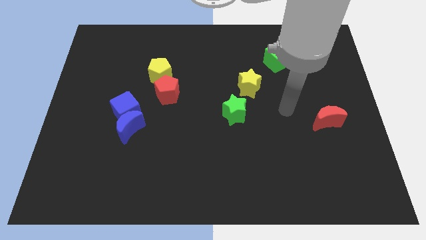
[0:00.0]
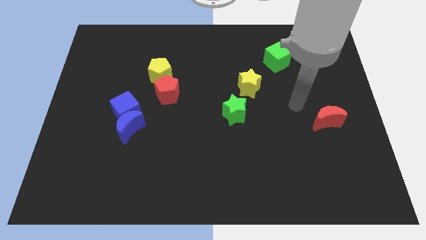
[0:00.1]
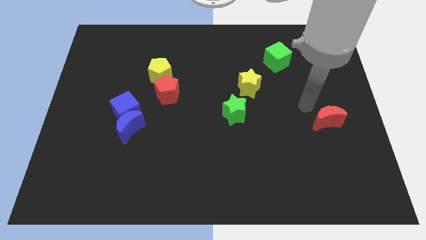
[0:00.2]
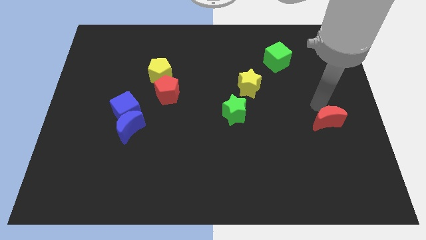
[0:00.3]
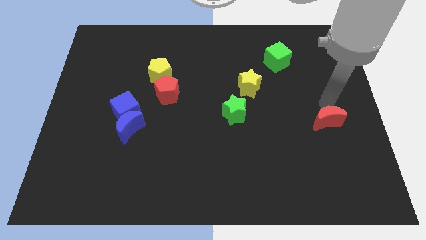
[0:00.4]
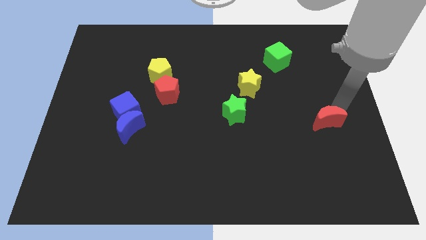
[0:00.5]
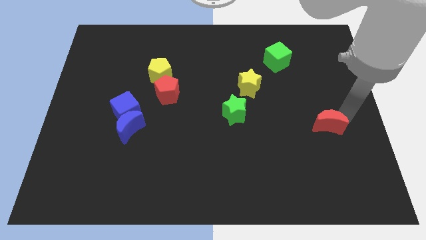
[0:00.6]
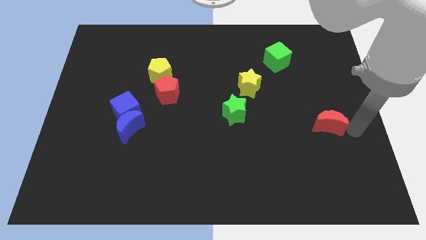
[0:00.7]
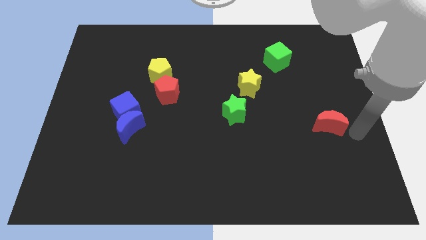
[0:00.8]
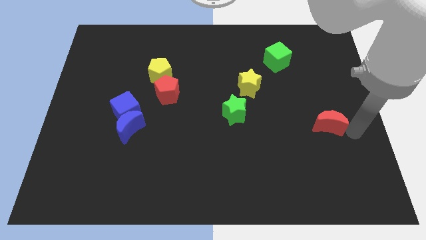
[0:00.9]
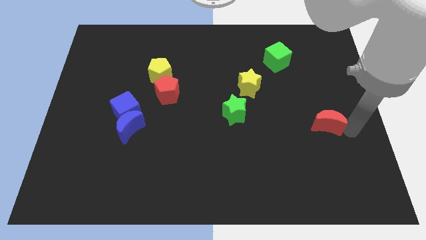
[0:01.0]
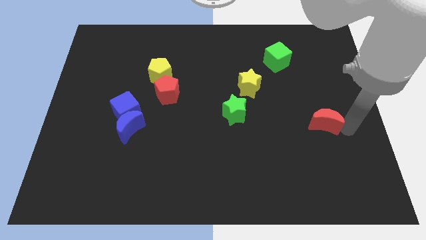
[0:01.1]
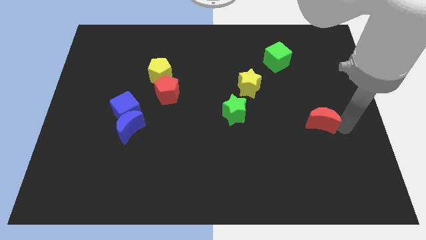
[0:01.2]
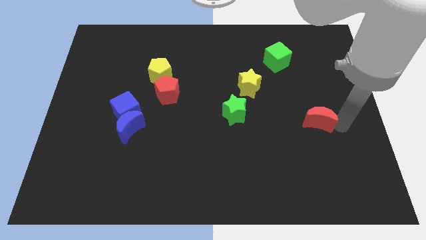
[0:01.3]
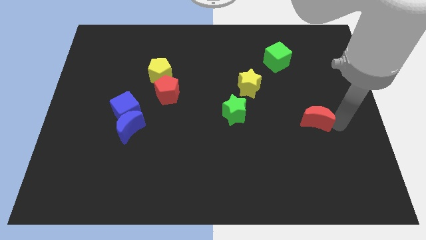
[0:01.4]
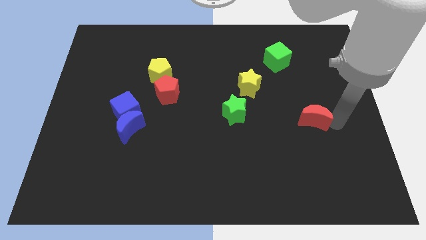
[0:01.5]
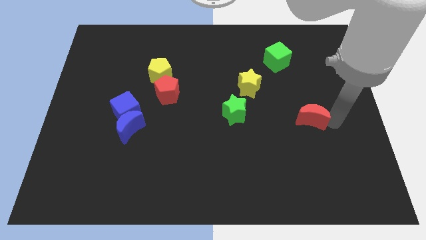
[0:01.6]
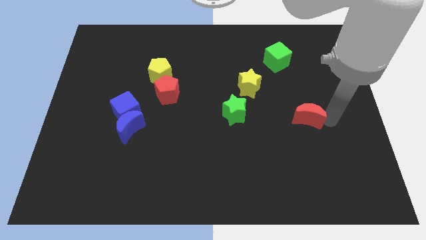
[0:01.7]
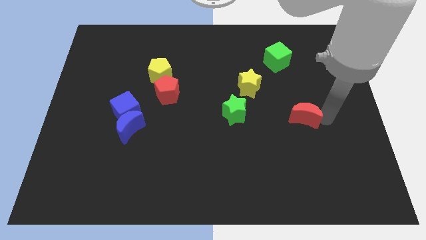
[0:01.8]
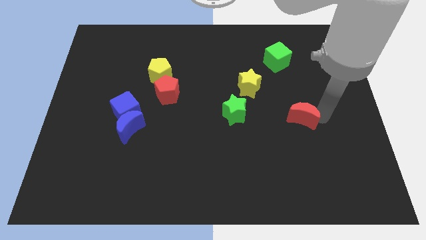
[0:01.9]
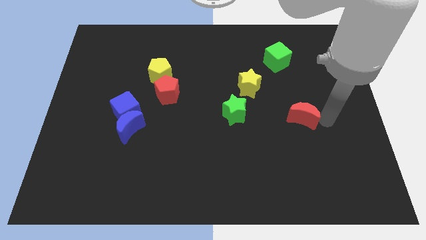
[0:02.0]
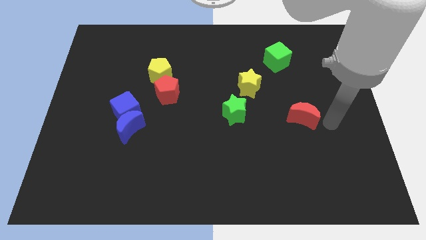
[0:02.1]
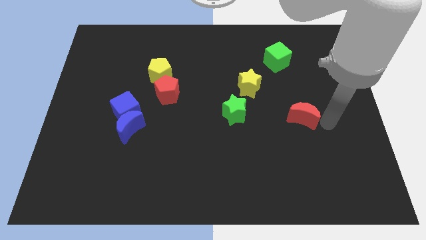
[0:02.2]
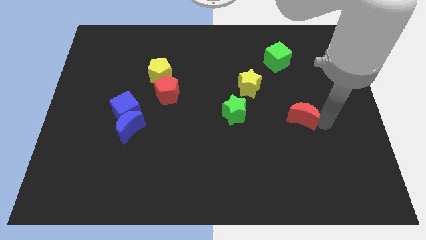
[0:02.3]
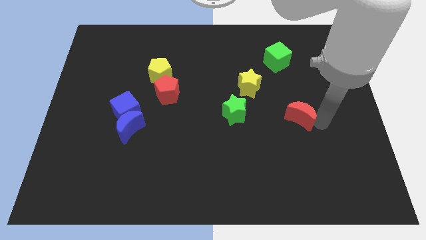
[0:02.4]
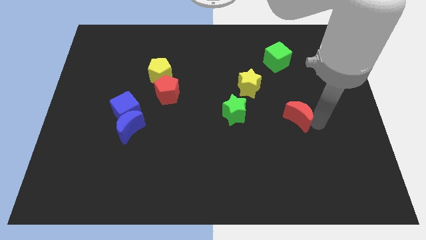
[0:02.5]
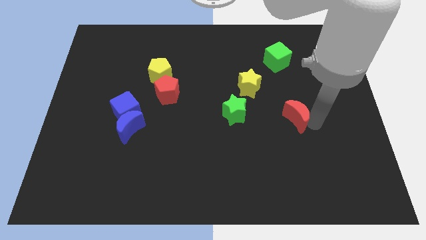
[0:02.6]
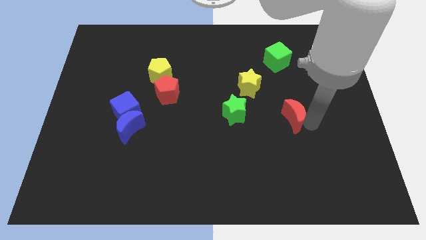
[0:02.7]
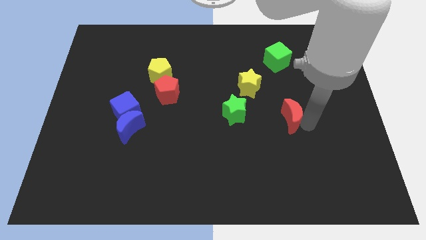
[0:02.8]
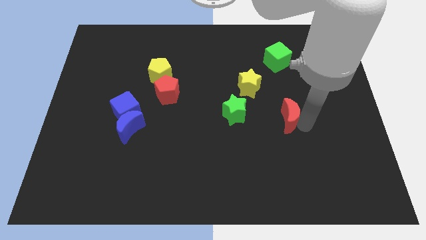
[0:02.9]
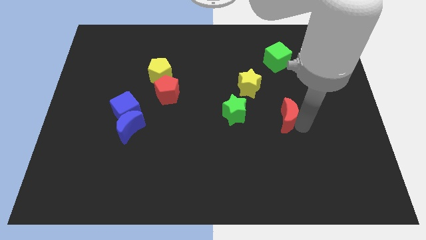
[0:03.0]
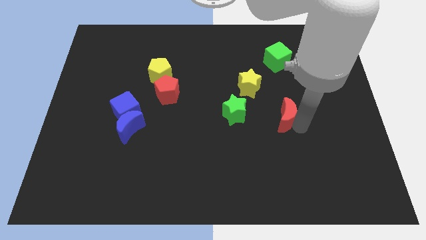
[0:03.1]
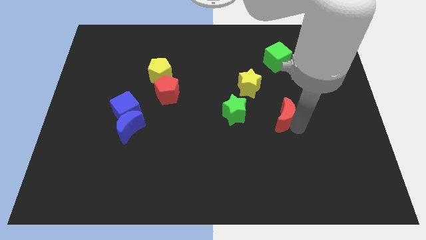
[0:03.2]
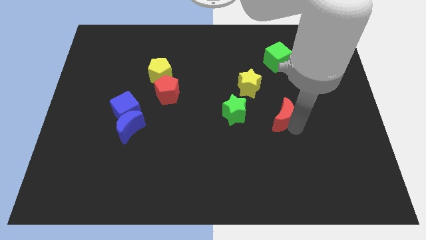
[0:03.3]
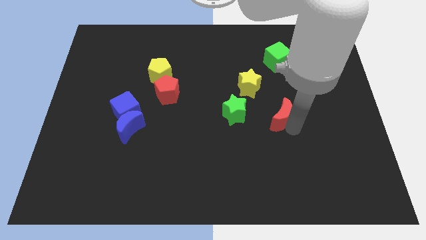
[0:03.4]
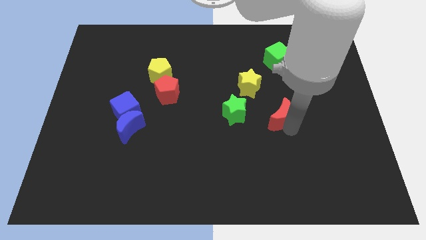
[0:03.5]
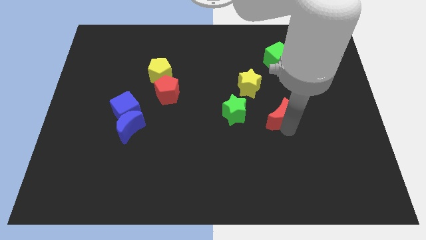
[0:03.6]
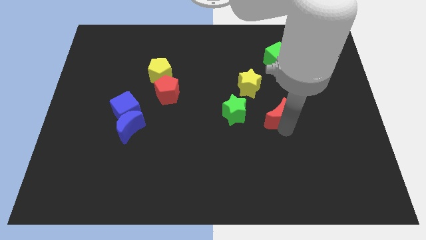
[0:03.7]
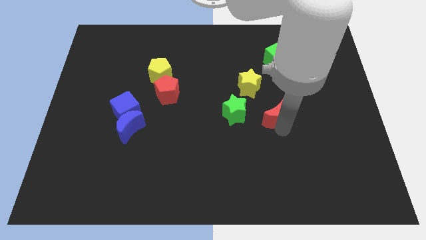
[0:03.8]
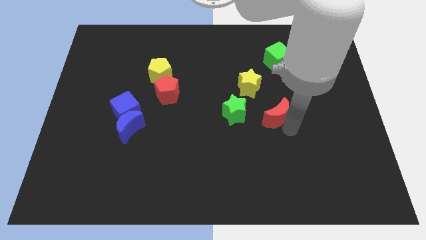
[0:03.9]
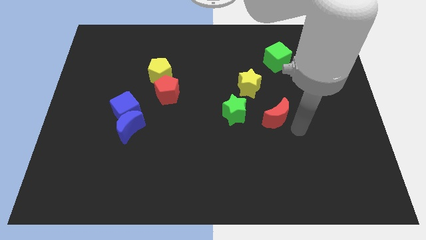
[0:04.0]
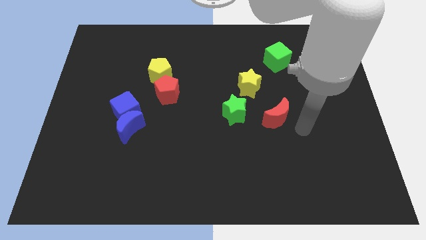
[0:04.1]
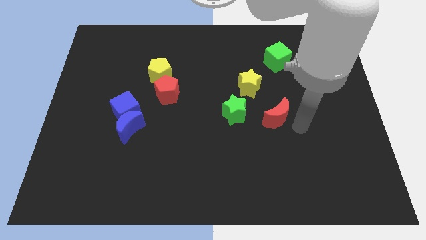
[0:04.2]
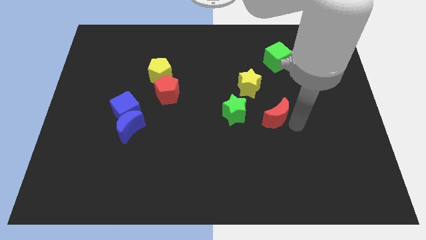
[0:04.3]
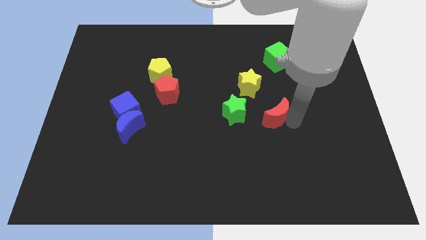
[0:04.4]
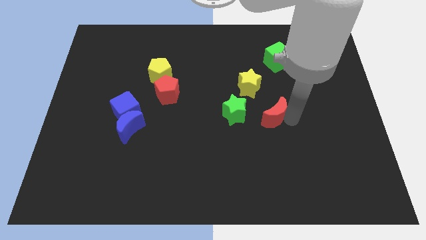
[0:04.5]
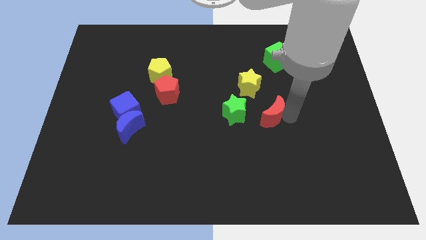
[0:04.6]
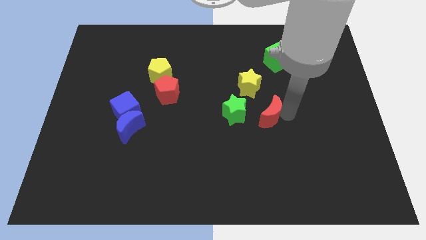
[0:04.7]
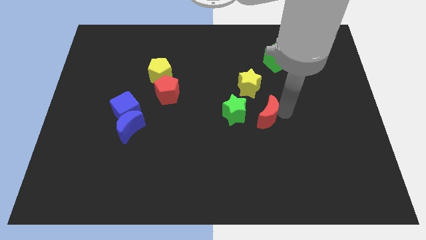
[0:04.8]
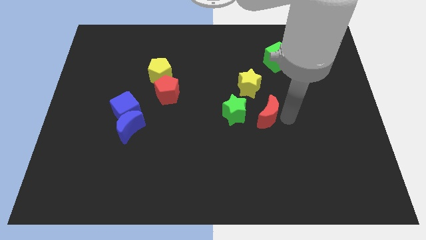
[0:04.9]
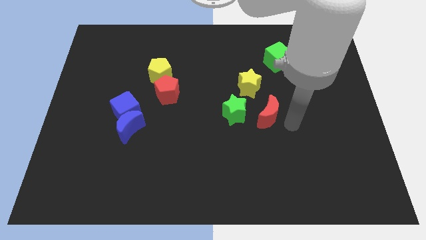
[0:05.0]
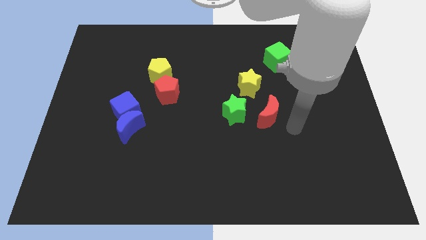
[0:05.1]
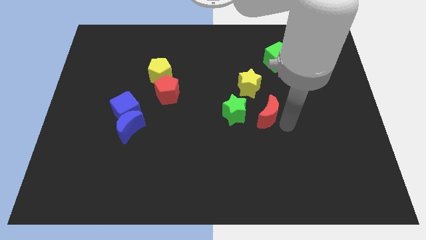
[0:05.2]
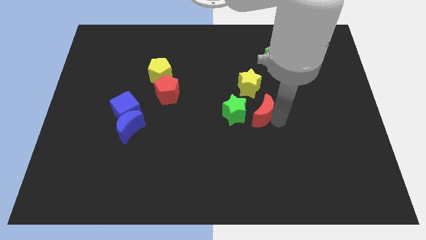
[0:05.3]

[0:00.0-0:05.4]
push the red moon to the middle of the board

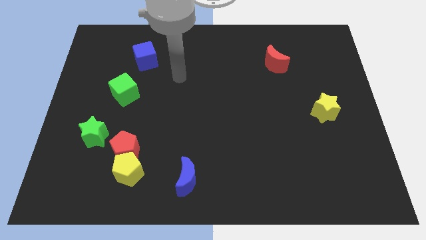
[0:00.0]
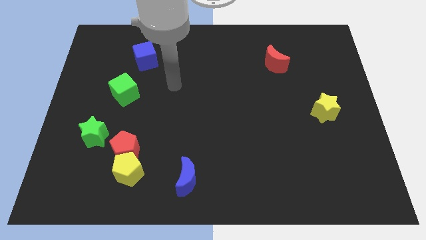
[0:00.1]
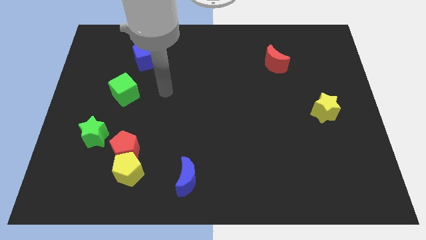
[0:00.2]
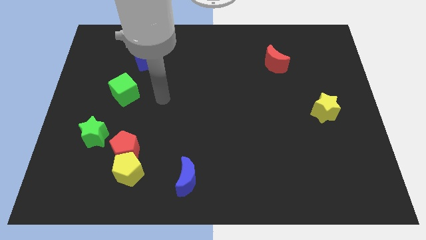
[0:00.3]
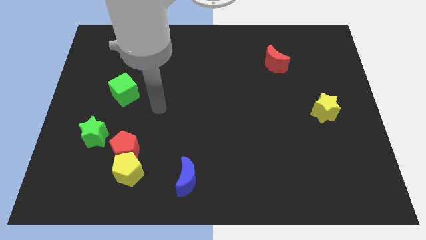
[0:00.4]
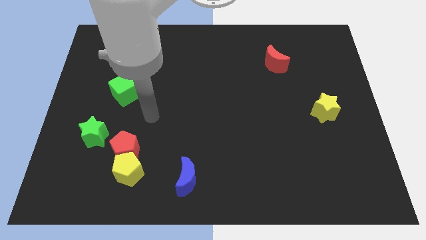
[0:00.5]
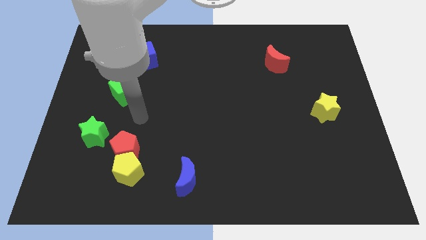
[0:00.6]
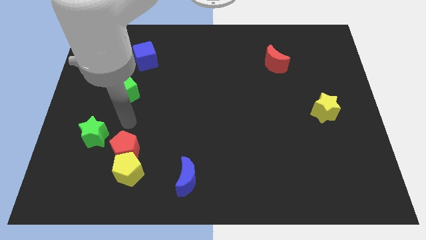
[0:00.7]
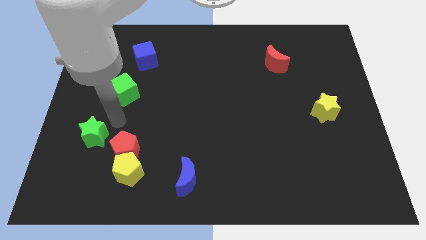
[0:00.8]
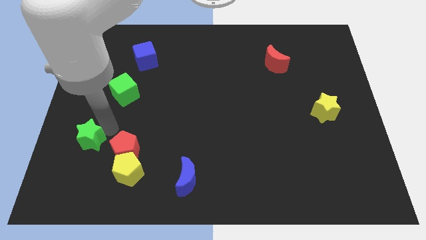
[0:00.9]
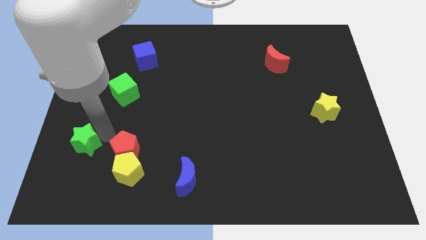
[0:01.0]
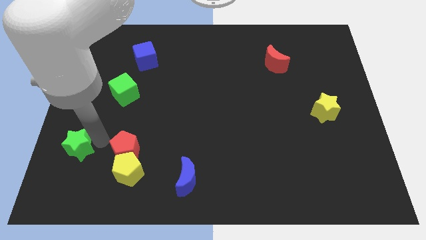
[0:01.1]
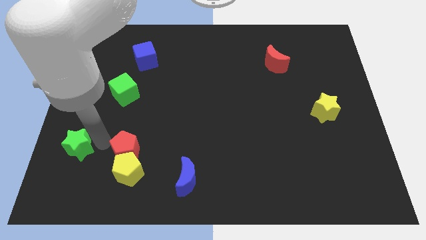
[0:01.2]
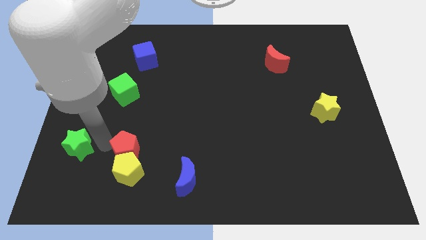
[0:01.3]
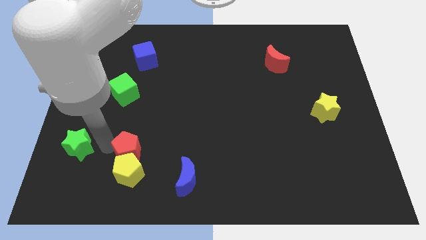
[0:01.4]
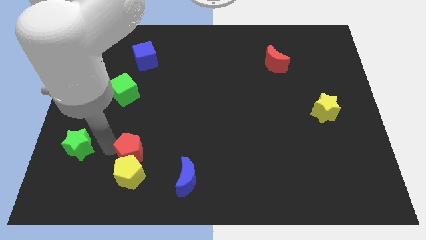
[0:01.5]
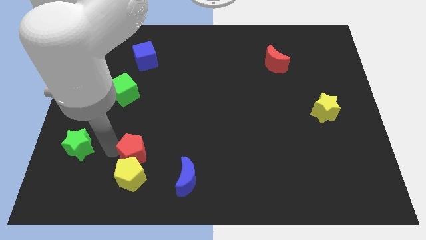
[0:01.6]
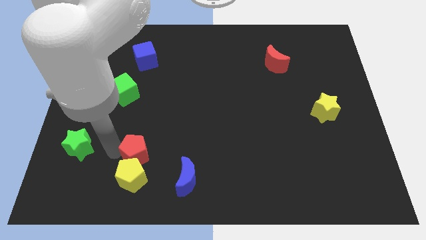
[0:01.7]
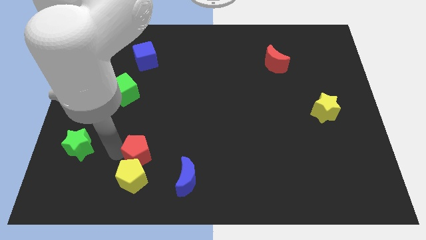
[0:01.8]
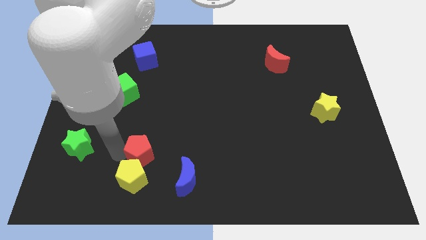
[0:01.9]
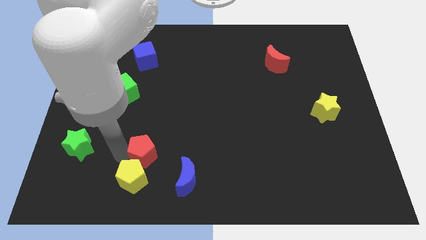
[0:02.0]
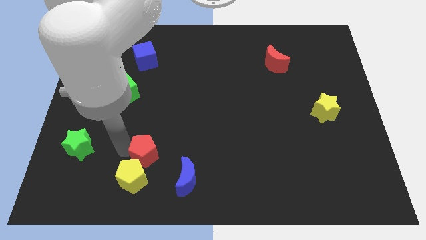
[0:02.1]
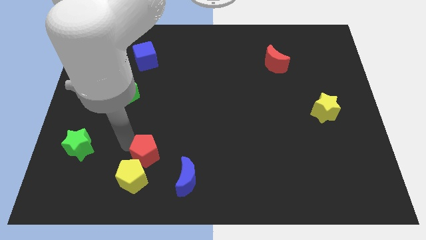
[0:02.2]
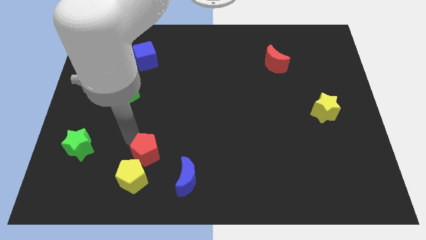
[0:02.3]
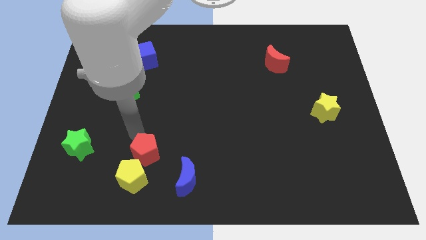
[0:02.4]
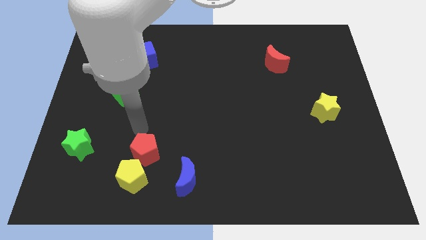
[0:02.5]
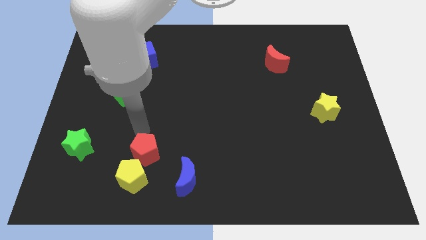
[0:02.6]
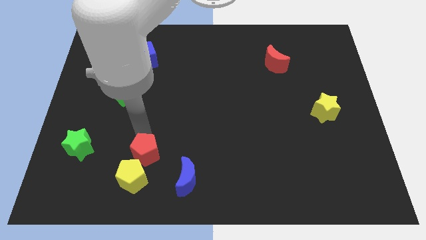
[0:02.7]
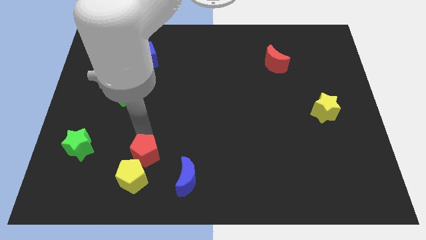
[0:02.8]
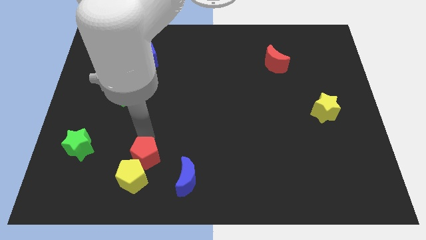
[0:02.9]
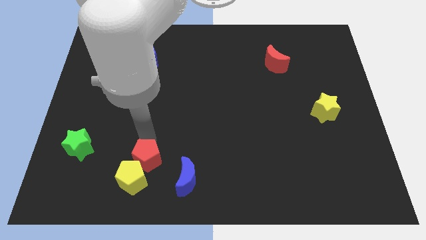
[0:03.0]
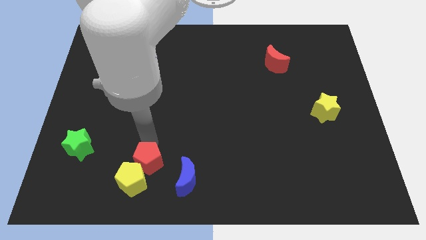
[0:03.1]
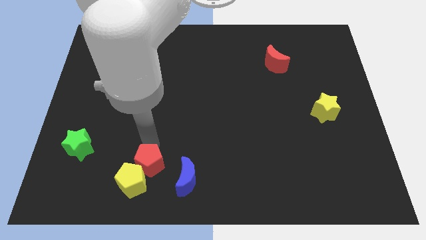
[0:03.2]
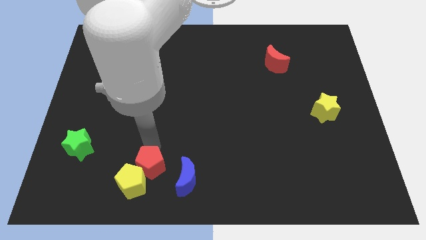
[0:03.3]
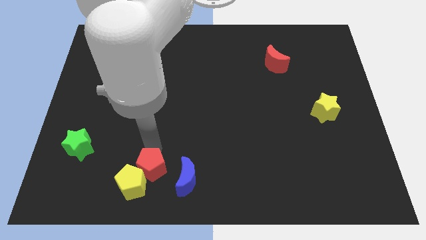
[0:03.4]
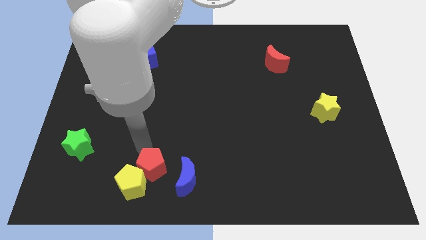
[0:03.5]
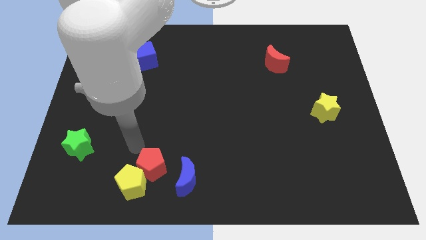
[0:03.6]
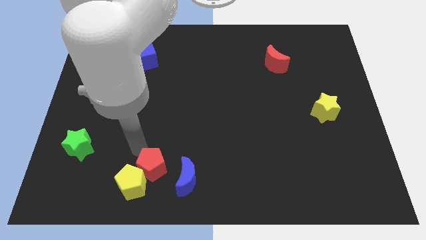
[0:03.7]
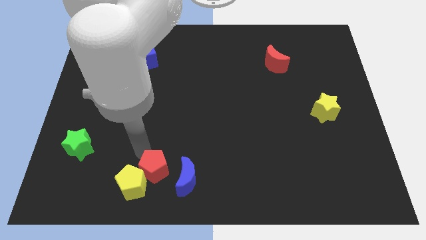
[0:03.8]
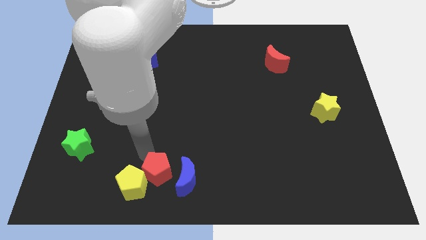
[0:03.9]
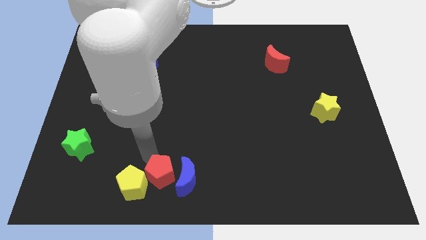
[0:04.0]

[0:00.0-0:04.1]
push the red pentagon to the bottom
